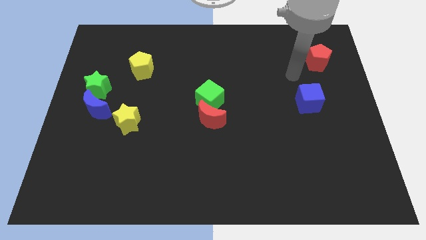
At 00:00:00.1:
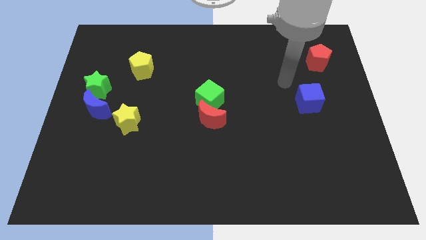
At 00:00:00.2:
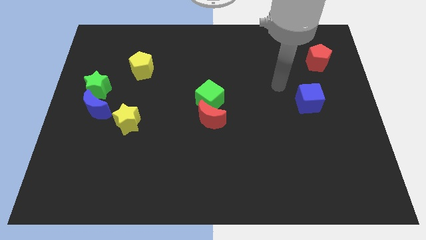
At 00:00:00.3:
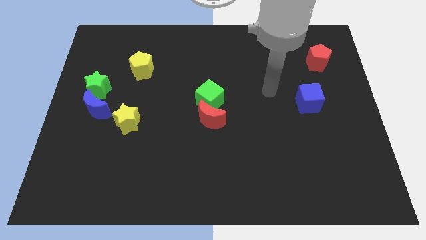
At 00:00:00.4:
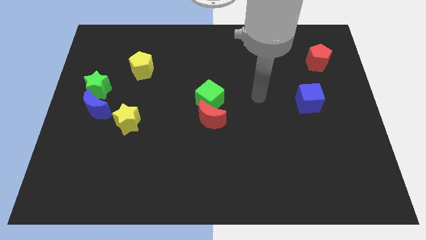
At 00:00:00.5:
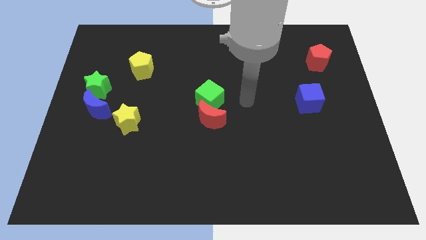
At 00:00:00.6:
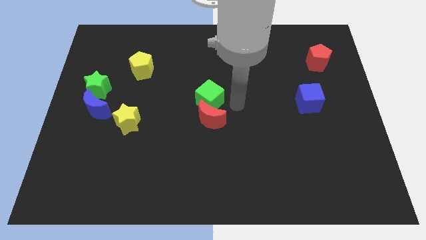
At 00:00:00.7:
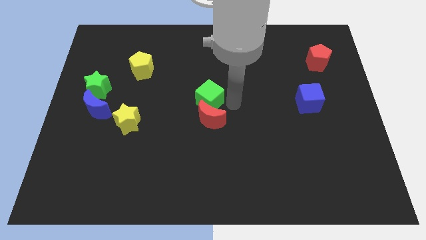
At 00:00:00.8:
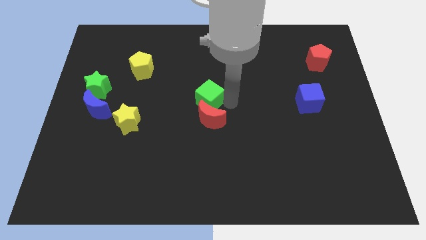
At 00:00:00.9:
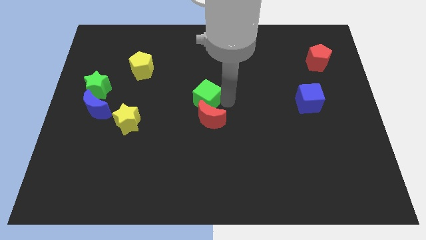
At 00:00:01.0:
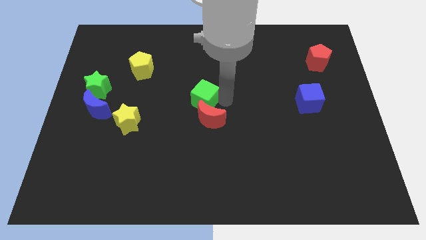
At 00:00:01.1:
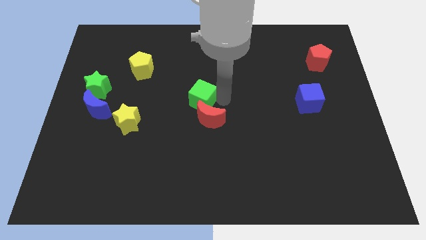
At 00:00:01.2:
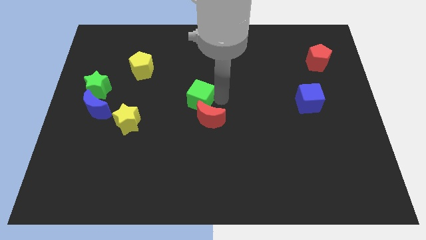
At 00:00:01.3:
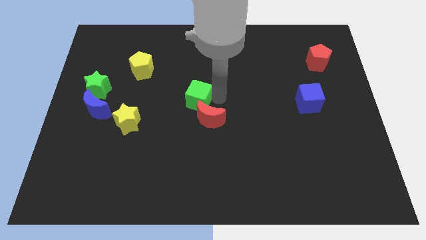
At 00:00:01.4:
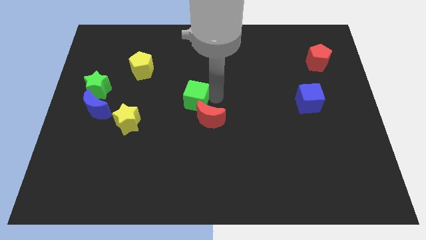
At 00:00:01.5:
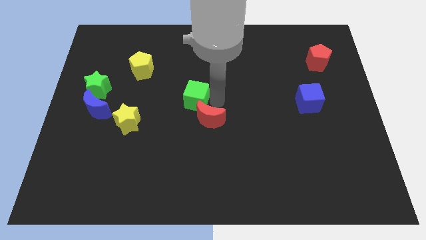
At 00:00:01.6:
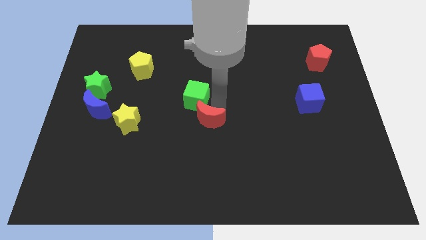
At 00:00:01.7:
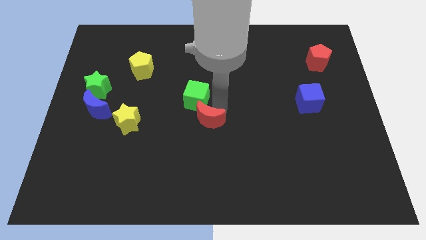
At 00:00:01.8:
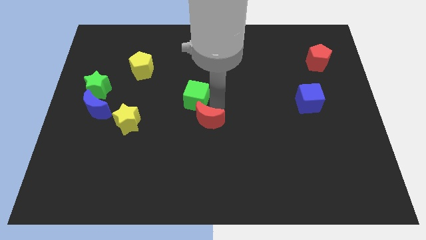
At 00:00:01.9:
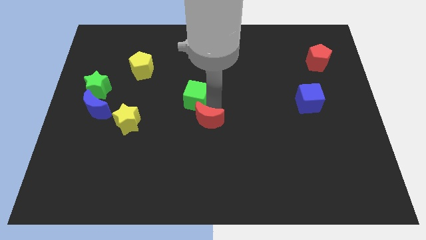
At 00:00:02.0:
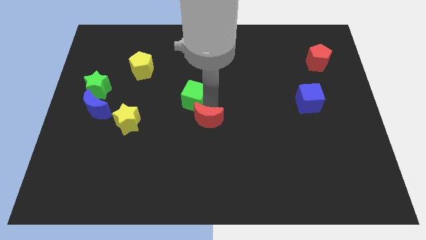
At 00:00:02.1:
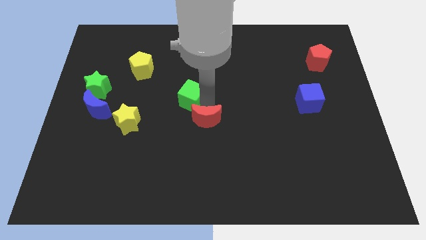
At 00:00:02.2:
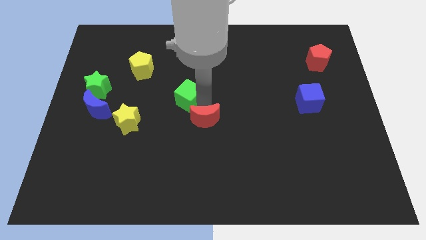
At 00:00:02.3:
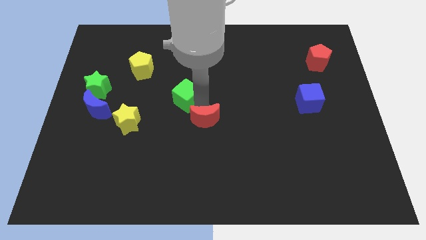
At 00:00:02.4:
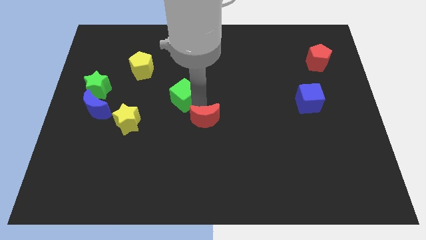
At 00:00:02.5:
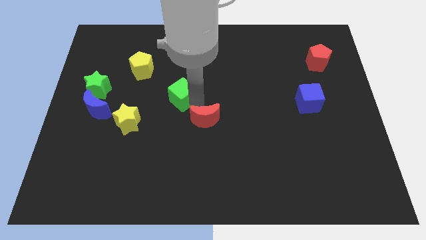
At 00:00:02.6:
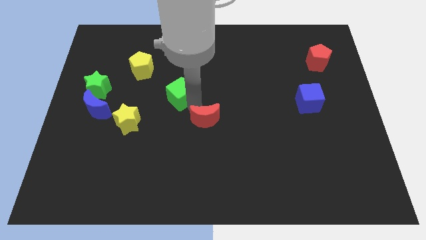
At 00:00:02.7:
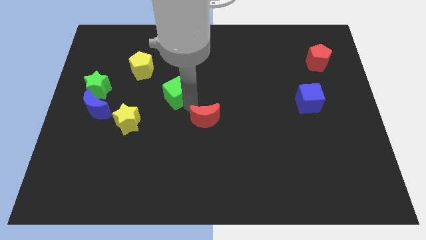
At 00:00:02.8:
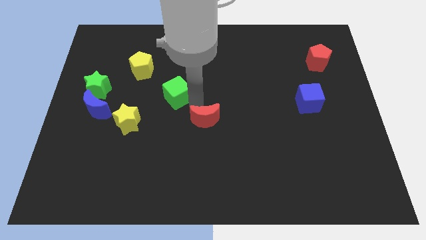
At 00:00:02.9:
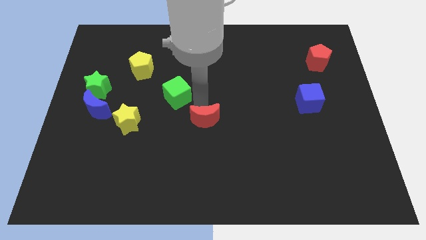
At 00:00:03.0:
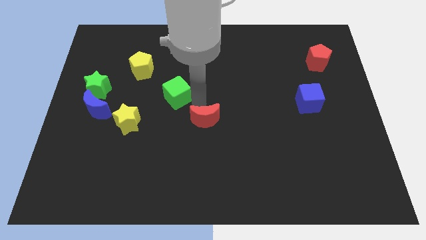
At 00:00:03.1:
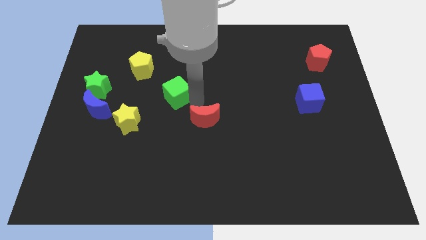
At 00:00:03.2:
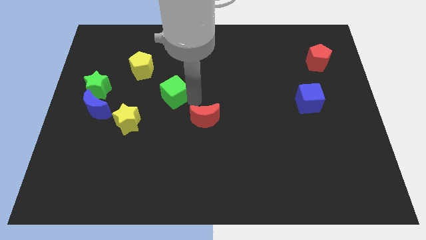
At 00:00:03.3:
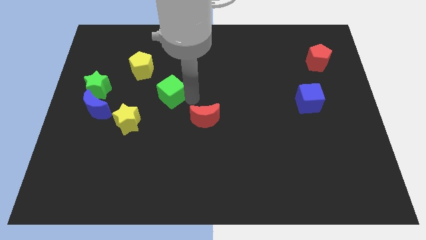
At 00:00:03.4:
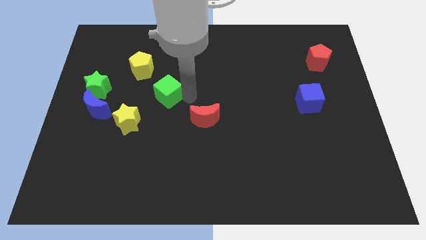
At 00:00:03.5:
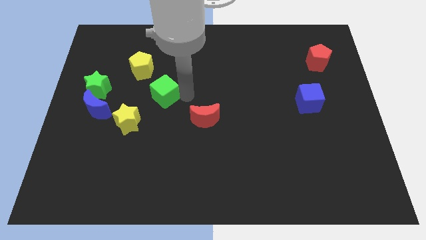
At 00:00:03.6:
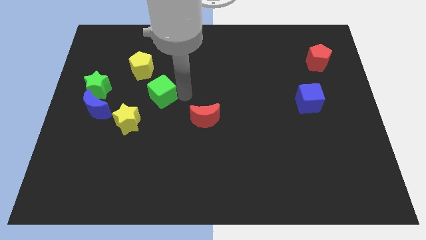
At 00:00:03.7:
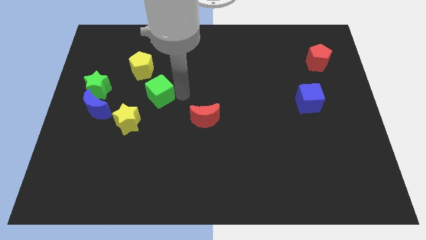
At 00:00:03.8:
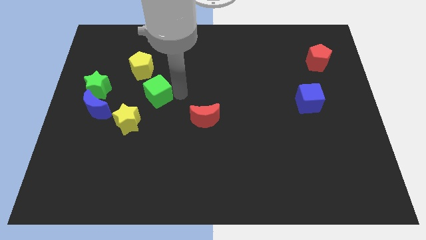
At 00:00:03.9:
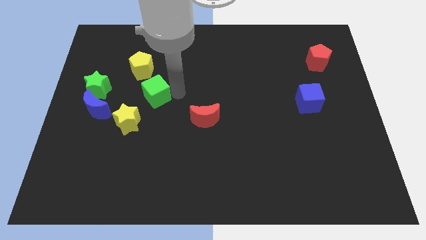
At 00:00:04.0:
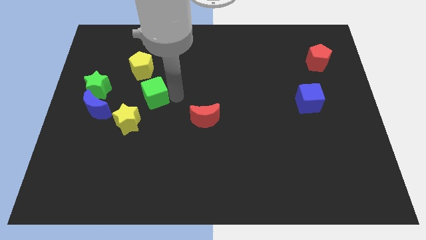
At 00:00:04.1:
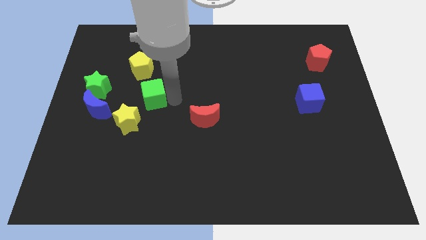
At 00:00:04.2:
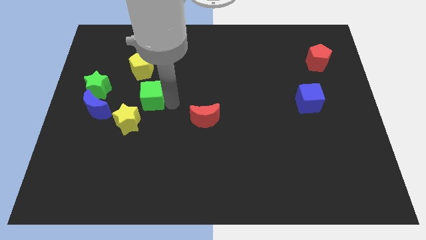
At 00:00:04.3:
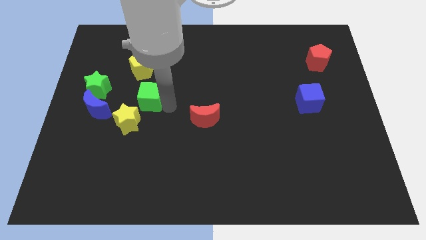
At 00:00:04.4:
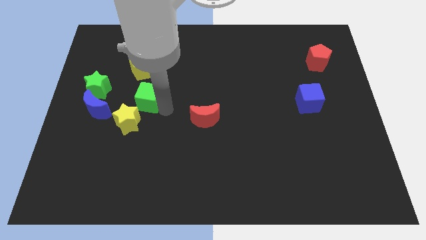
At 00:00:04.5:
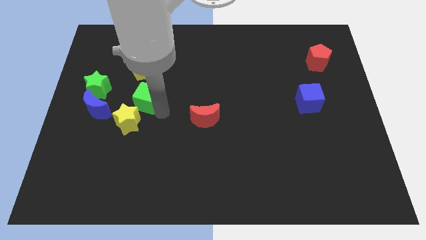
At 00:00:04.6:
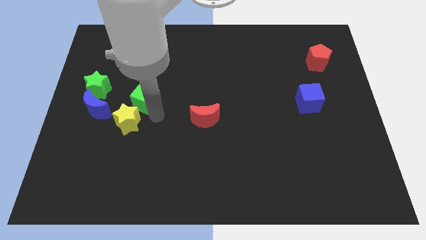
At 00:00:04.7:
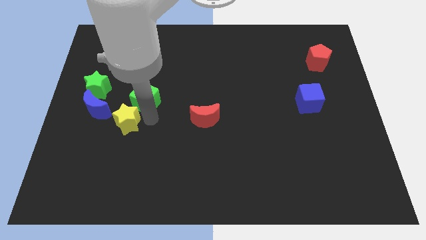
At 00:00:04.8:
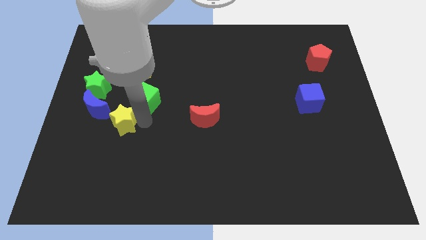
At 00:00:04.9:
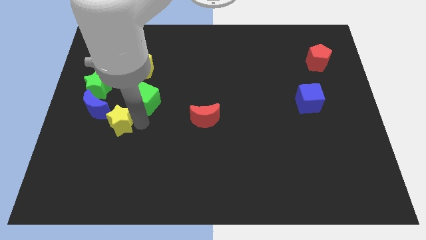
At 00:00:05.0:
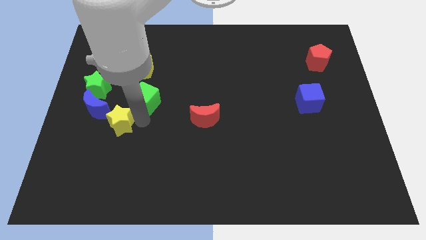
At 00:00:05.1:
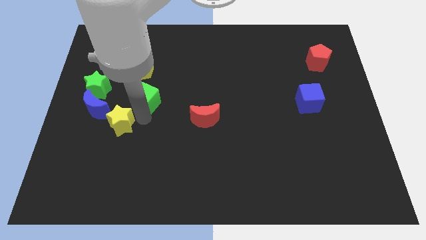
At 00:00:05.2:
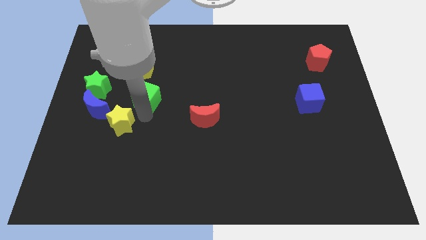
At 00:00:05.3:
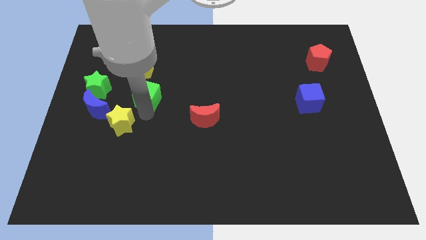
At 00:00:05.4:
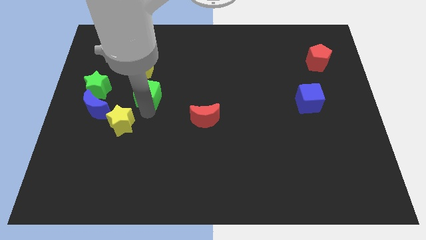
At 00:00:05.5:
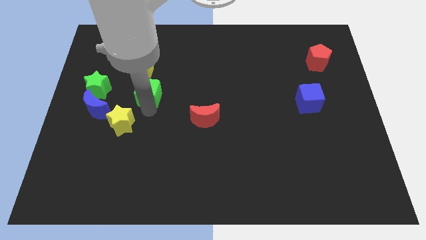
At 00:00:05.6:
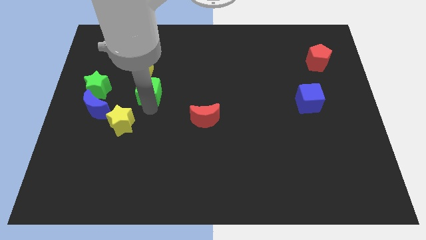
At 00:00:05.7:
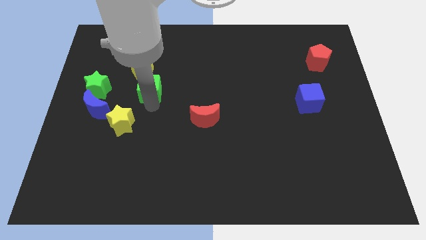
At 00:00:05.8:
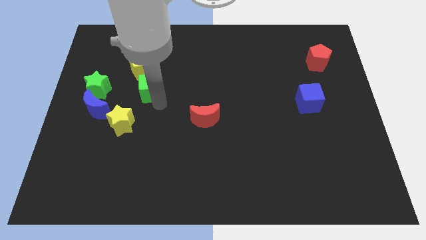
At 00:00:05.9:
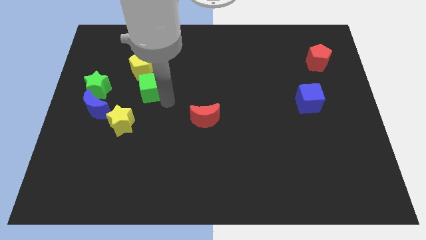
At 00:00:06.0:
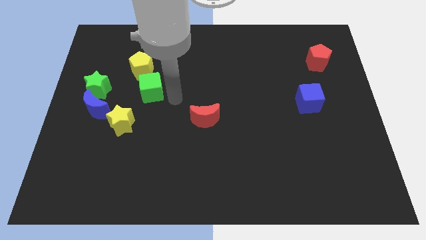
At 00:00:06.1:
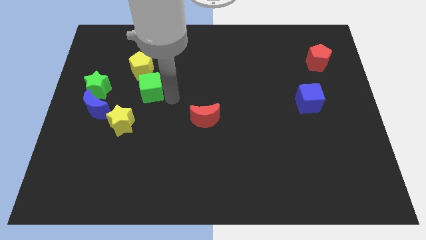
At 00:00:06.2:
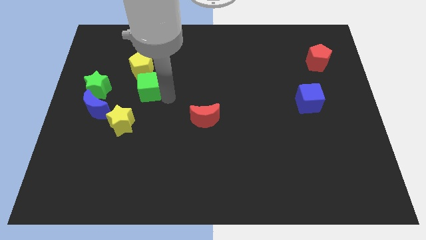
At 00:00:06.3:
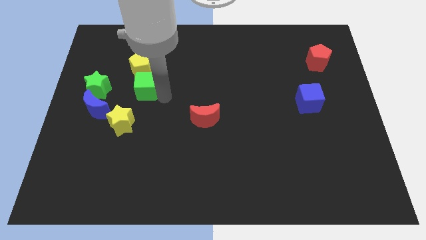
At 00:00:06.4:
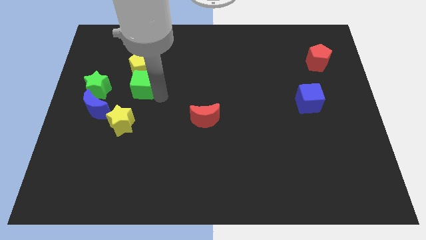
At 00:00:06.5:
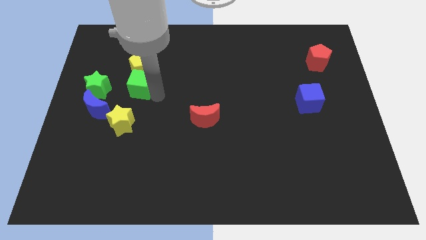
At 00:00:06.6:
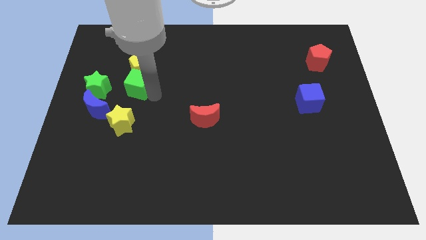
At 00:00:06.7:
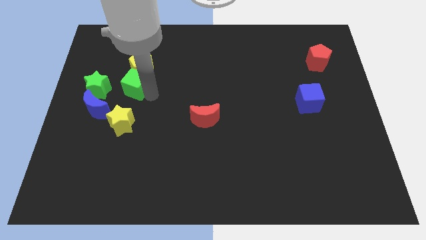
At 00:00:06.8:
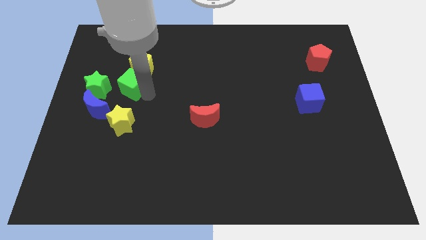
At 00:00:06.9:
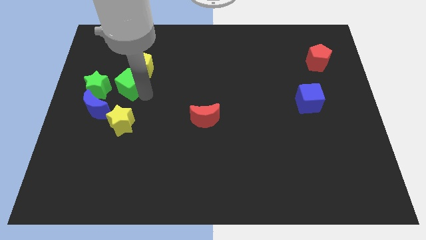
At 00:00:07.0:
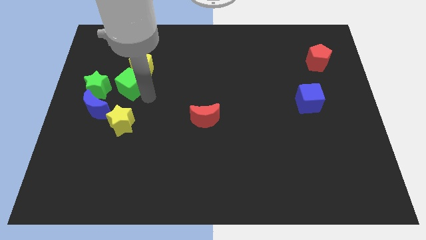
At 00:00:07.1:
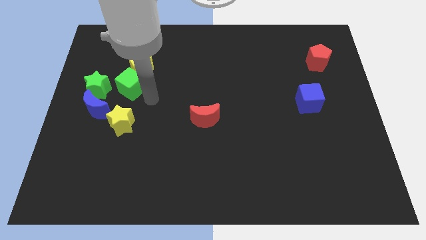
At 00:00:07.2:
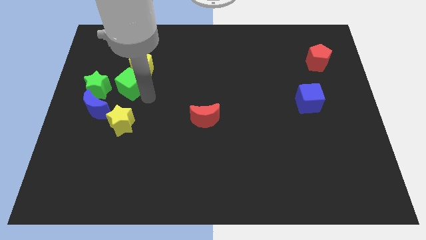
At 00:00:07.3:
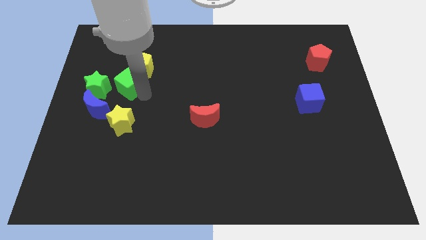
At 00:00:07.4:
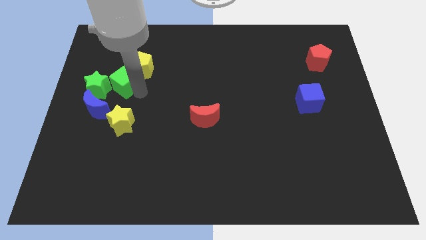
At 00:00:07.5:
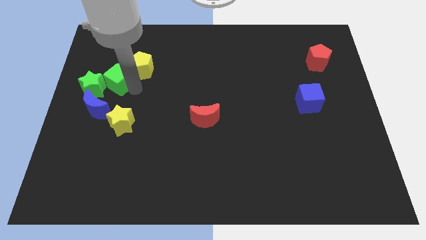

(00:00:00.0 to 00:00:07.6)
push the green cube to the top side of the blue moon

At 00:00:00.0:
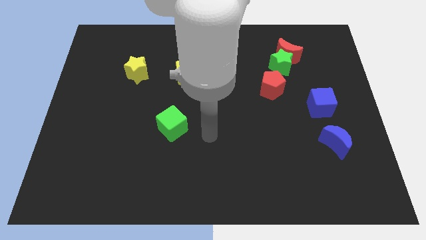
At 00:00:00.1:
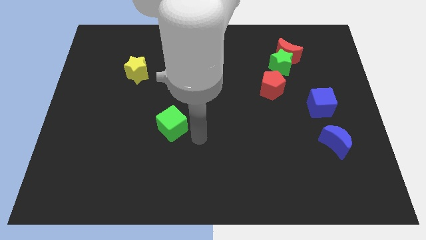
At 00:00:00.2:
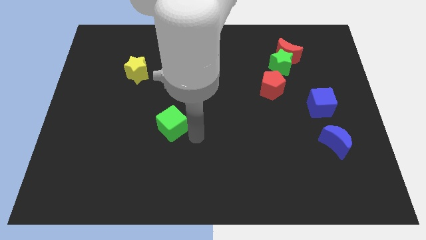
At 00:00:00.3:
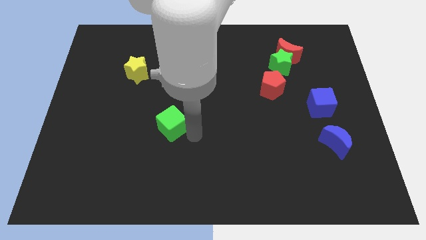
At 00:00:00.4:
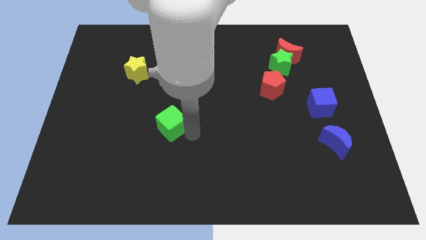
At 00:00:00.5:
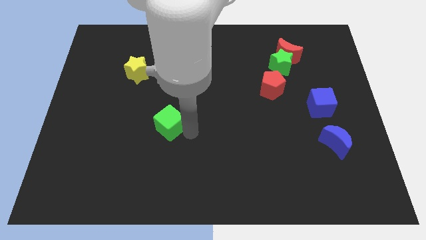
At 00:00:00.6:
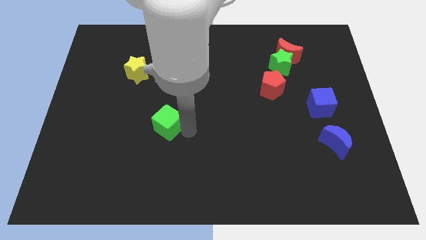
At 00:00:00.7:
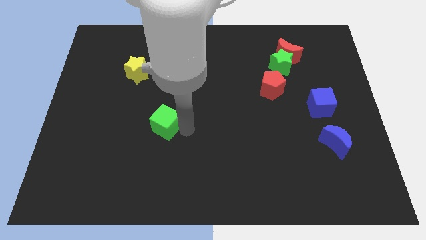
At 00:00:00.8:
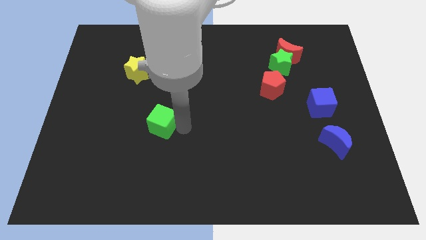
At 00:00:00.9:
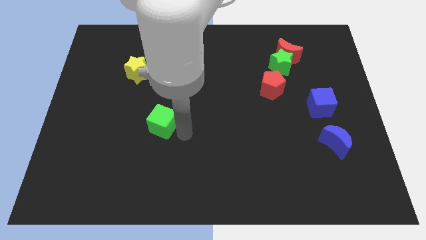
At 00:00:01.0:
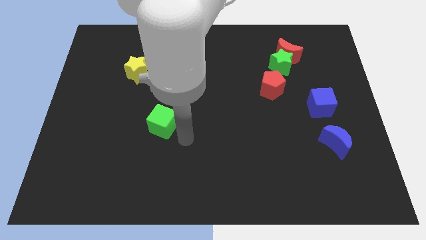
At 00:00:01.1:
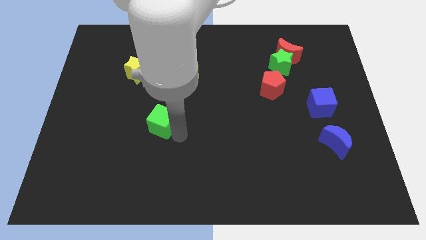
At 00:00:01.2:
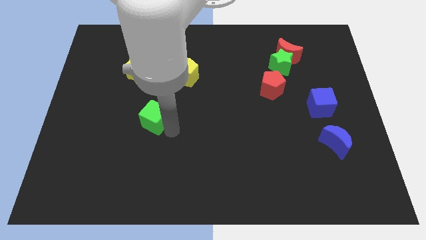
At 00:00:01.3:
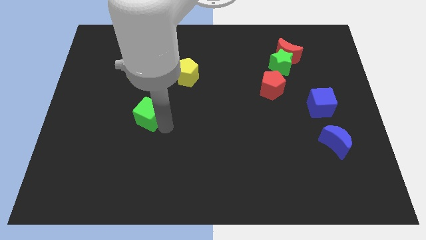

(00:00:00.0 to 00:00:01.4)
slide the green cube below the yellow star
